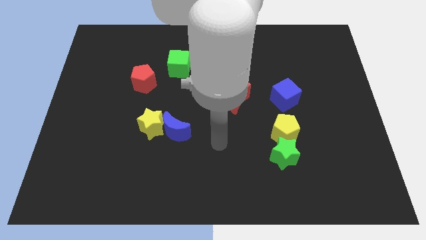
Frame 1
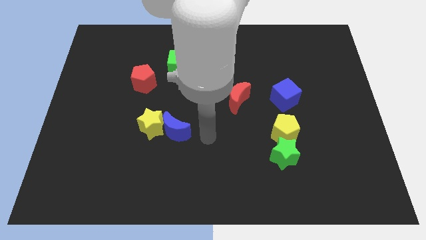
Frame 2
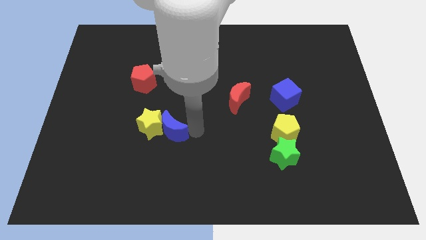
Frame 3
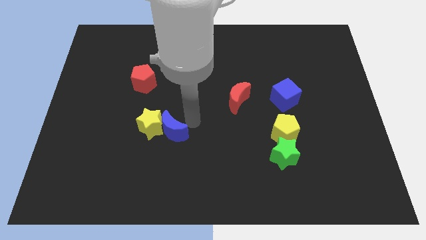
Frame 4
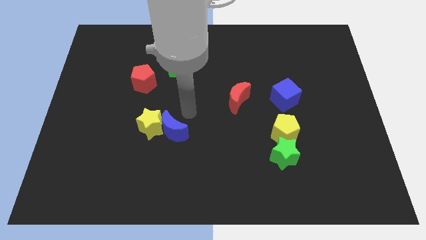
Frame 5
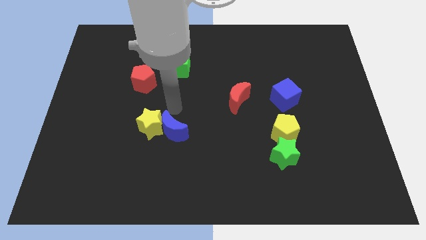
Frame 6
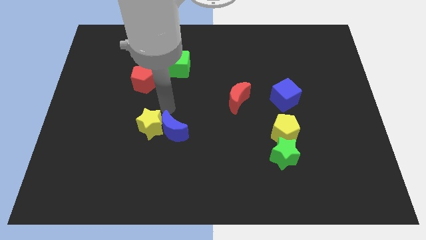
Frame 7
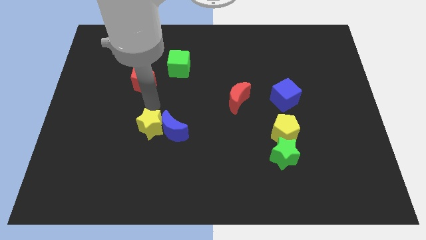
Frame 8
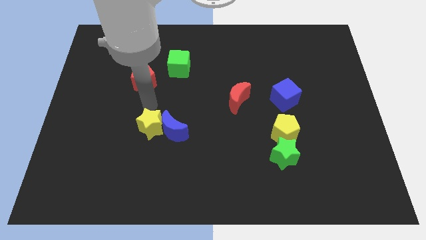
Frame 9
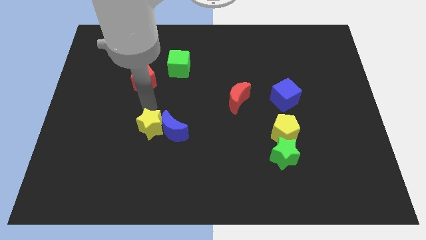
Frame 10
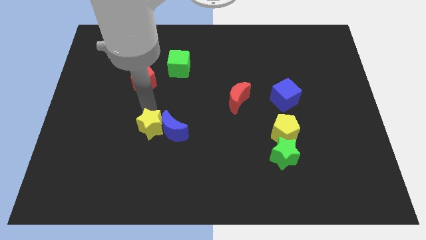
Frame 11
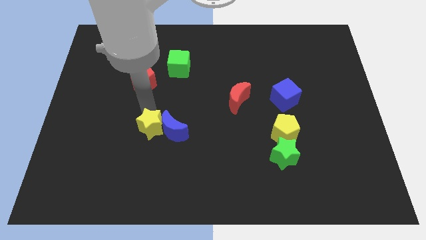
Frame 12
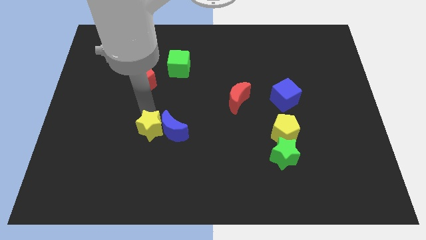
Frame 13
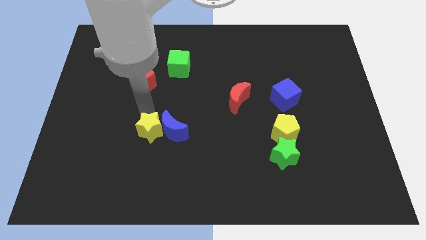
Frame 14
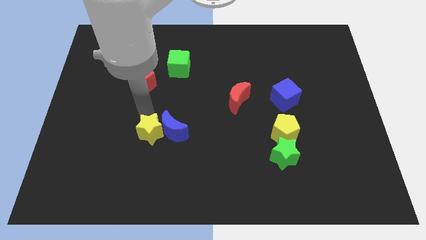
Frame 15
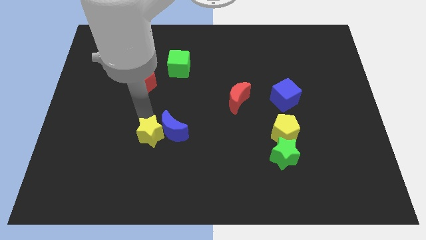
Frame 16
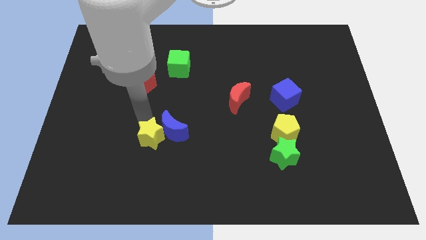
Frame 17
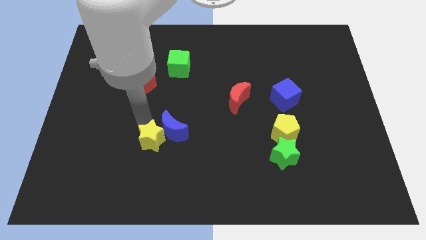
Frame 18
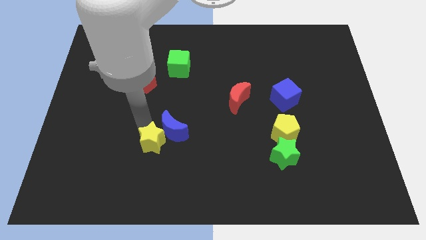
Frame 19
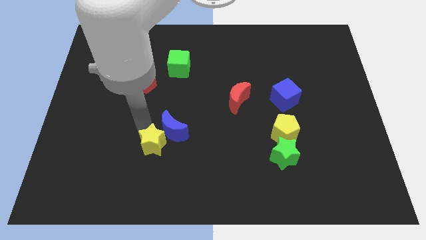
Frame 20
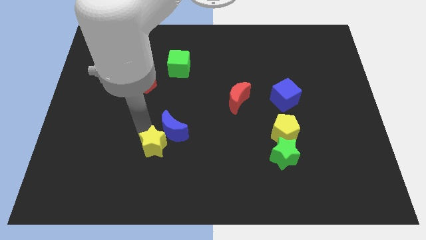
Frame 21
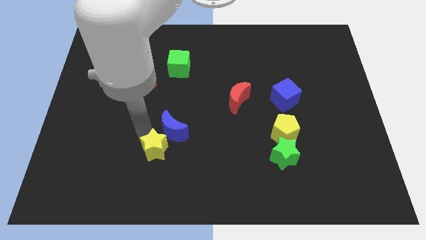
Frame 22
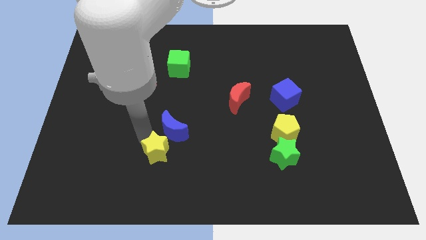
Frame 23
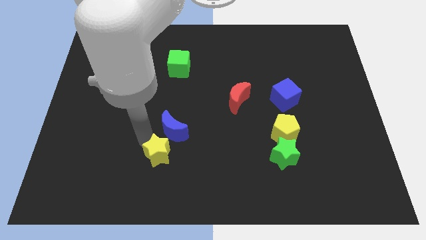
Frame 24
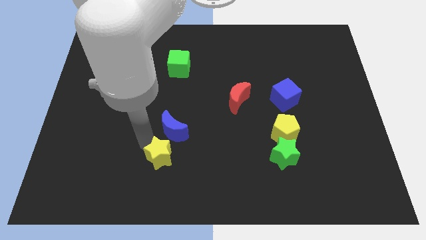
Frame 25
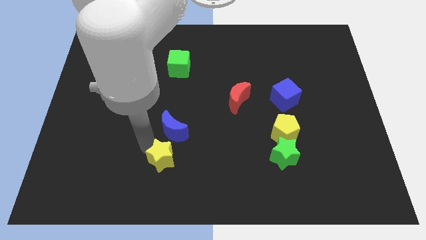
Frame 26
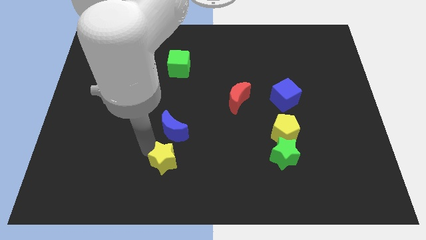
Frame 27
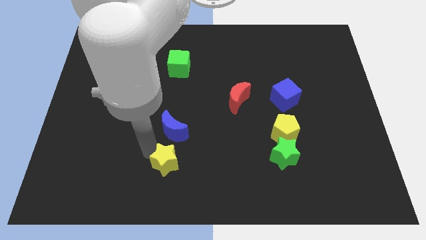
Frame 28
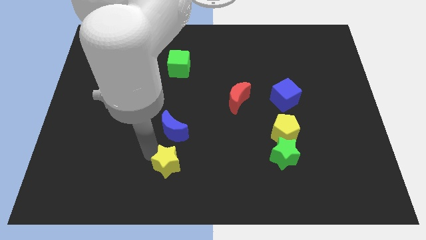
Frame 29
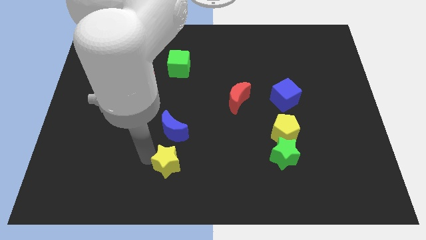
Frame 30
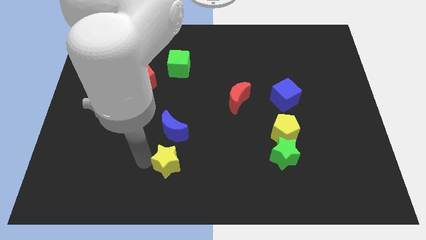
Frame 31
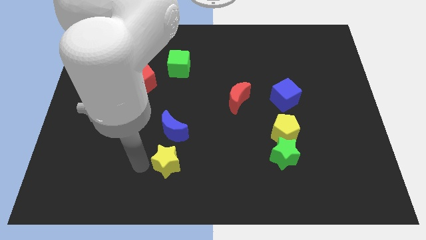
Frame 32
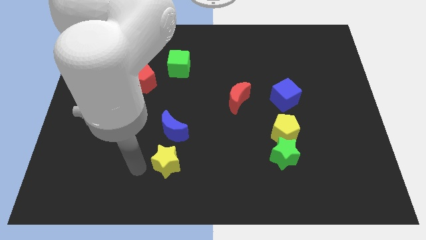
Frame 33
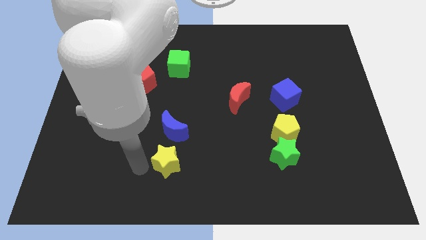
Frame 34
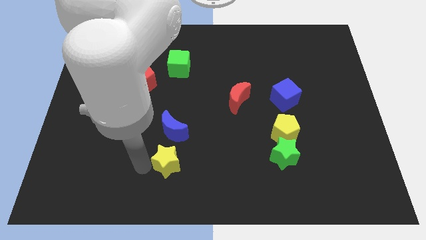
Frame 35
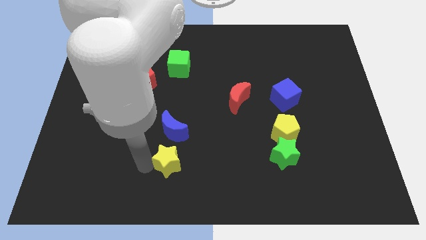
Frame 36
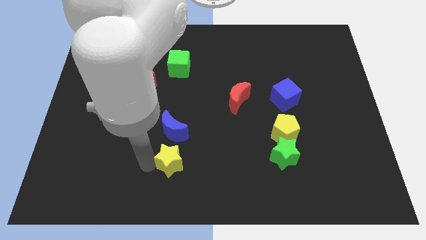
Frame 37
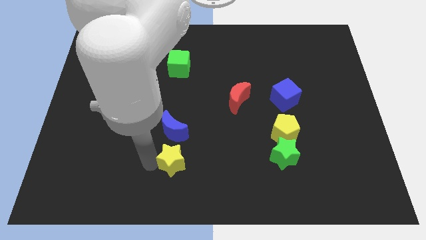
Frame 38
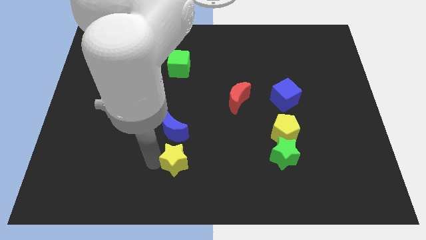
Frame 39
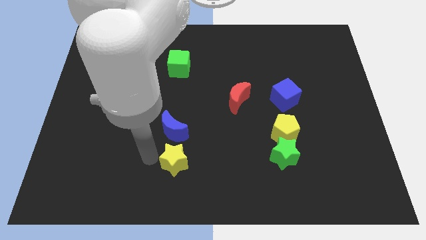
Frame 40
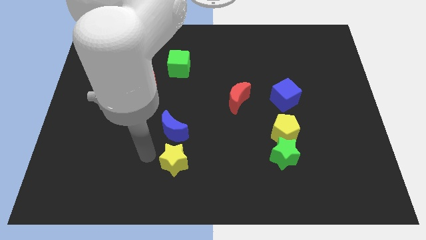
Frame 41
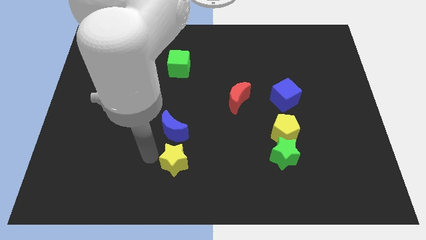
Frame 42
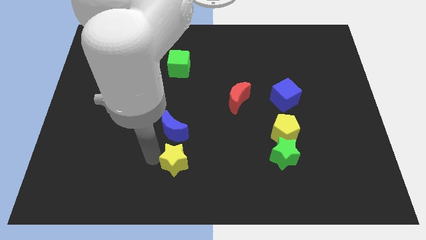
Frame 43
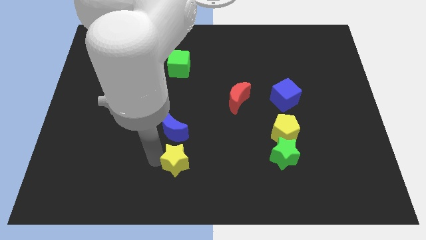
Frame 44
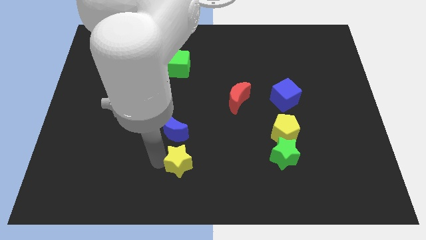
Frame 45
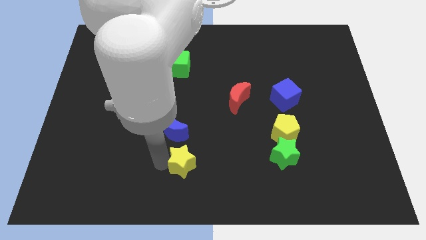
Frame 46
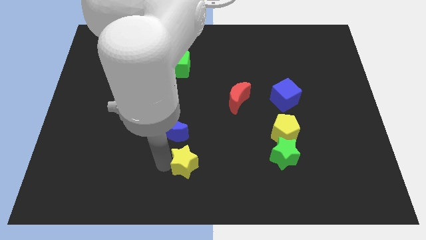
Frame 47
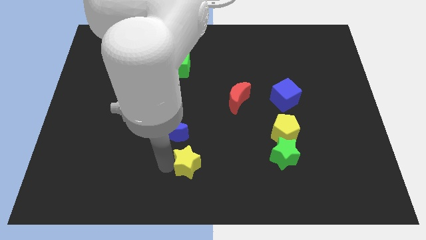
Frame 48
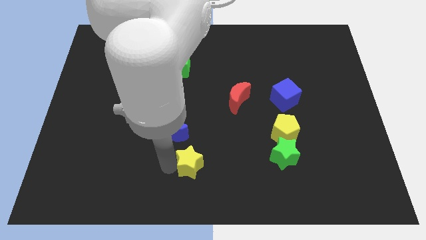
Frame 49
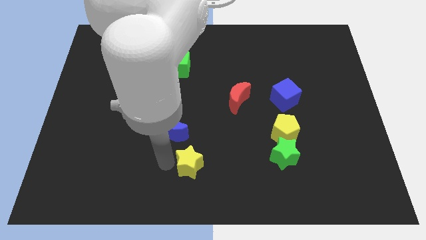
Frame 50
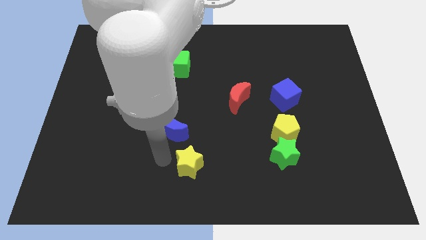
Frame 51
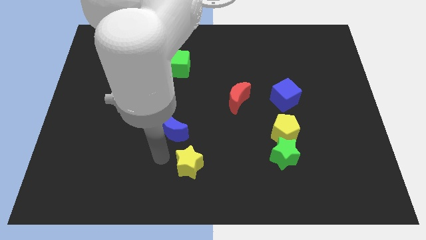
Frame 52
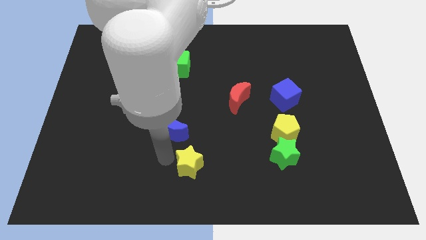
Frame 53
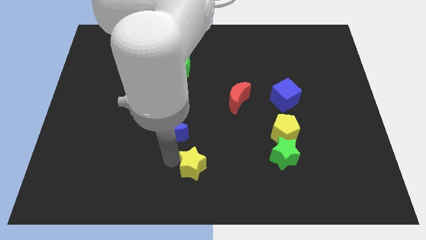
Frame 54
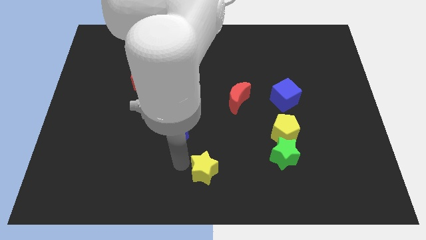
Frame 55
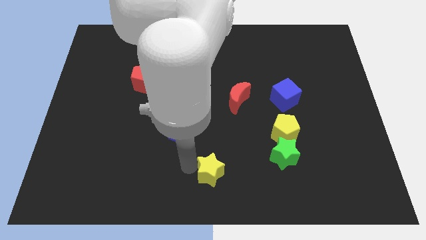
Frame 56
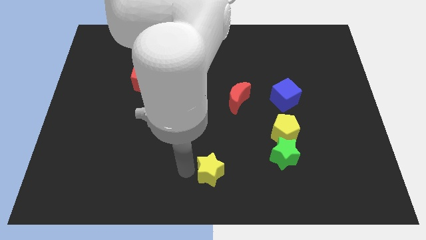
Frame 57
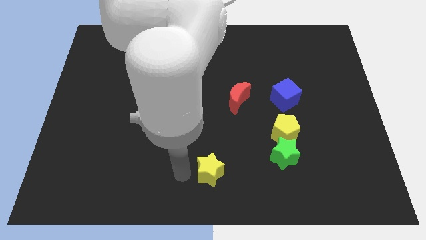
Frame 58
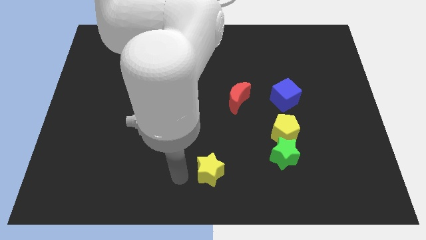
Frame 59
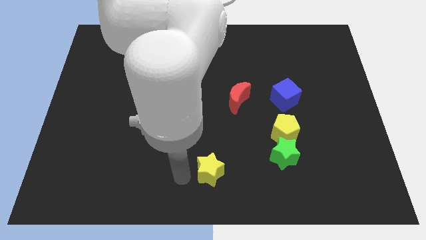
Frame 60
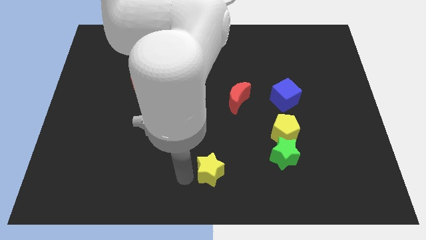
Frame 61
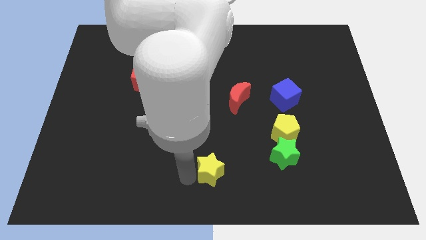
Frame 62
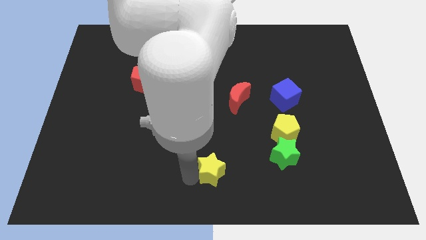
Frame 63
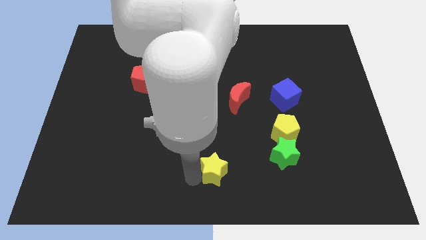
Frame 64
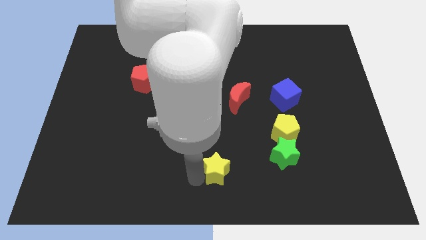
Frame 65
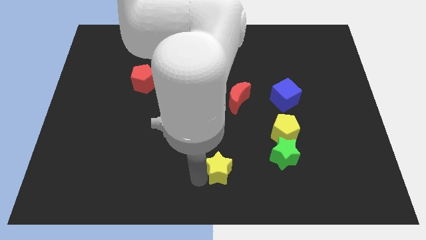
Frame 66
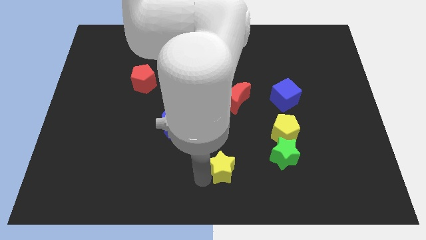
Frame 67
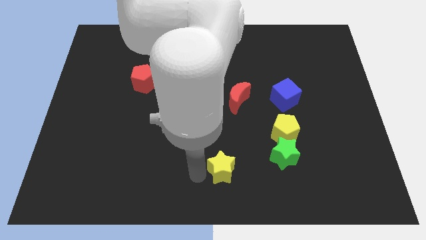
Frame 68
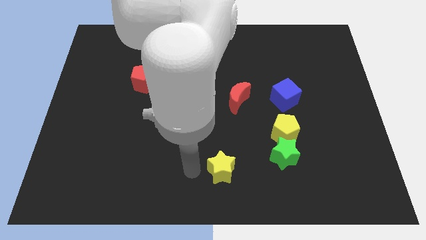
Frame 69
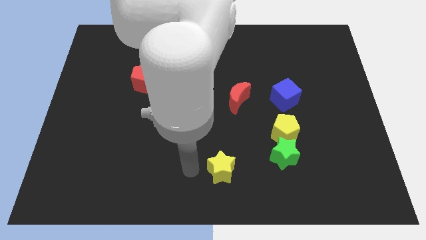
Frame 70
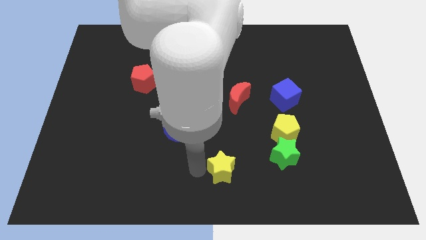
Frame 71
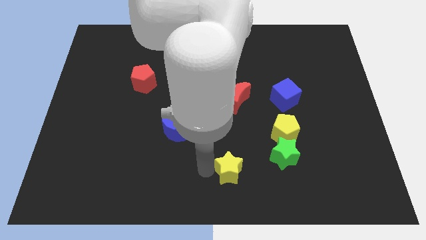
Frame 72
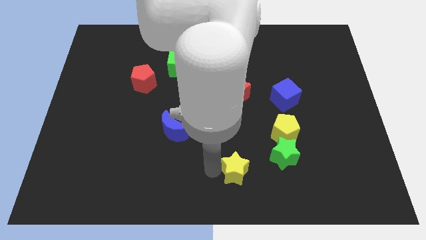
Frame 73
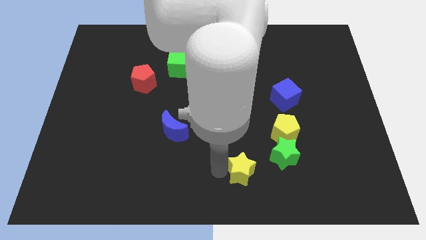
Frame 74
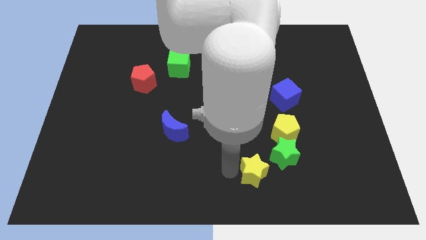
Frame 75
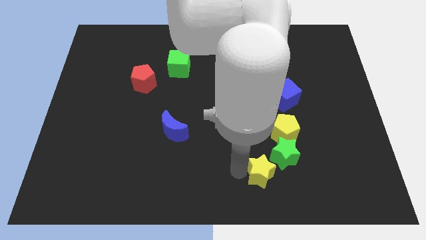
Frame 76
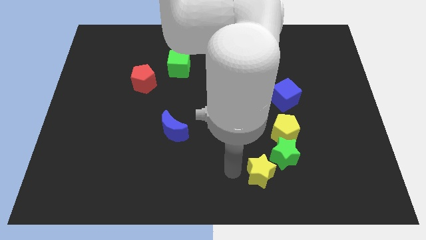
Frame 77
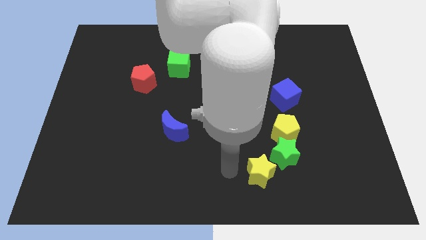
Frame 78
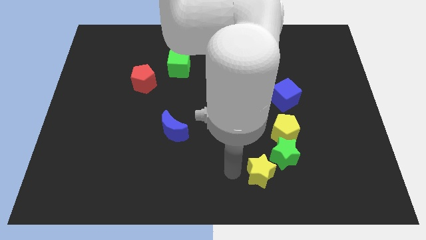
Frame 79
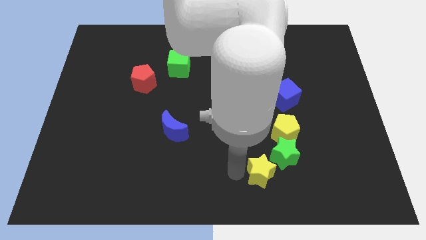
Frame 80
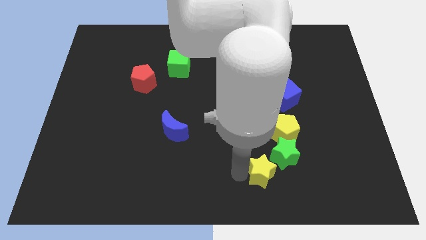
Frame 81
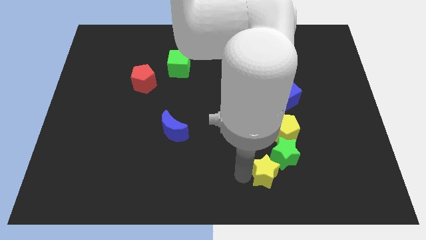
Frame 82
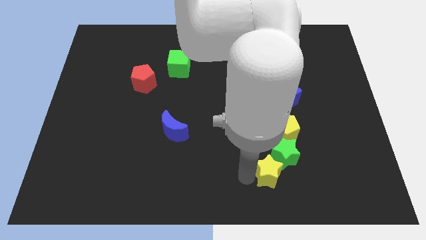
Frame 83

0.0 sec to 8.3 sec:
push the yellow star below the yellow pentagon
